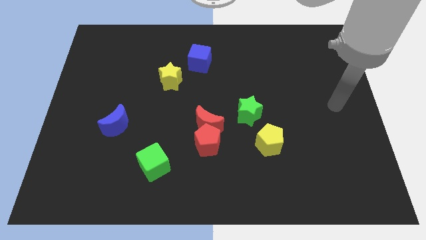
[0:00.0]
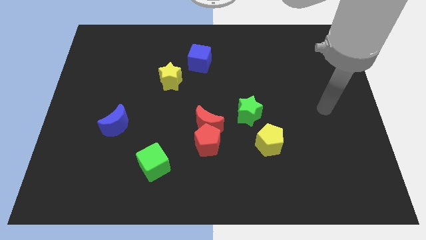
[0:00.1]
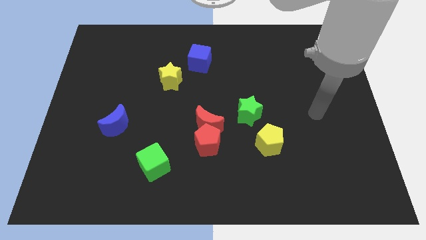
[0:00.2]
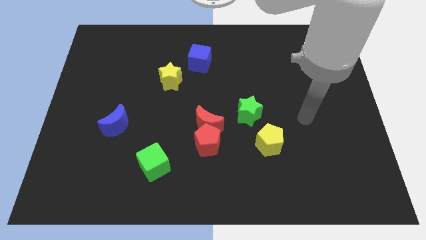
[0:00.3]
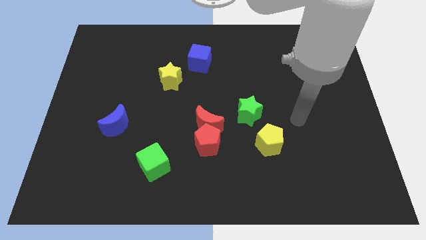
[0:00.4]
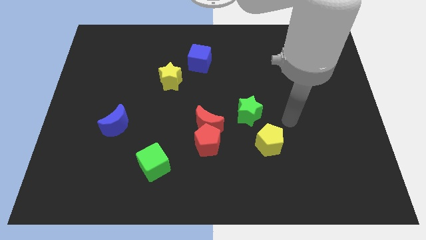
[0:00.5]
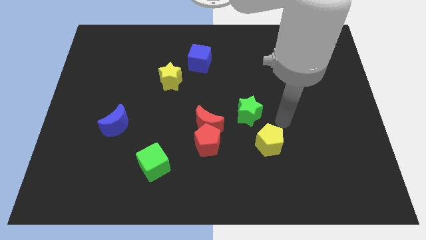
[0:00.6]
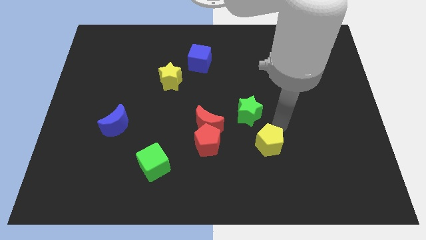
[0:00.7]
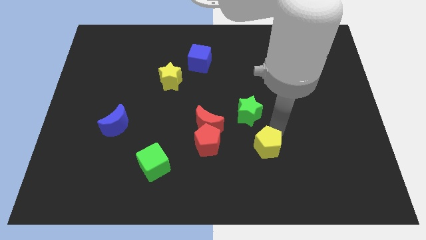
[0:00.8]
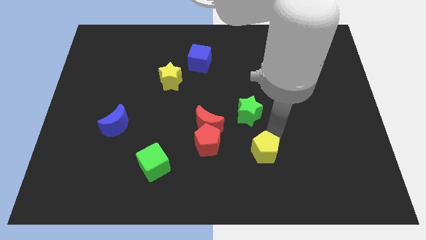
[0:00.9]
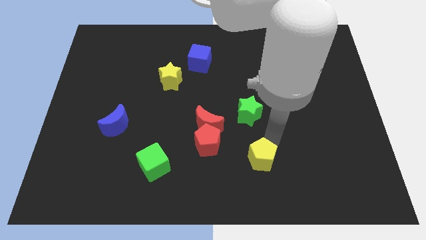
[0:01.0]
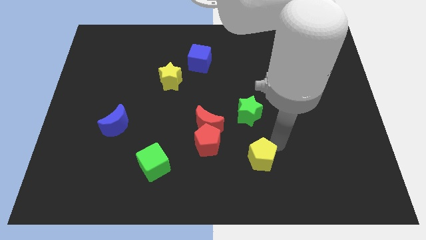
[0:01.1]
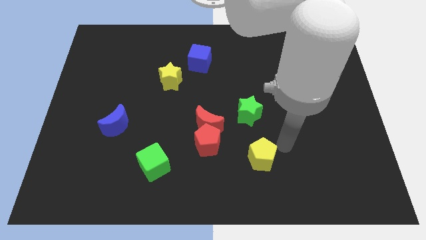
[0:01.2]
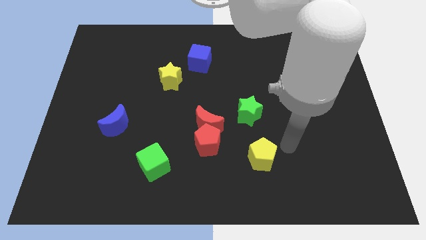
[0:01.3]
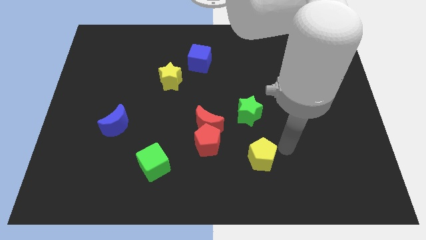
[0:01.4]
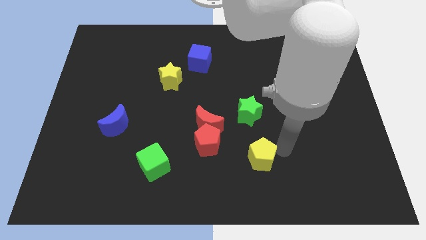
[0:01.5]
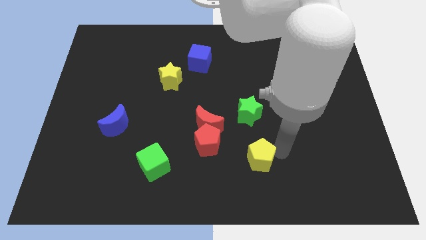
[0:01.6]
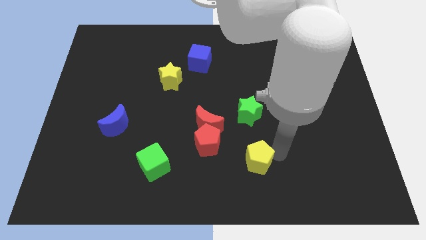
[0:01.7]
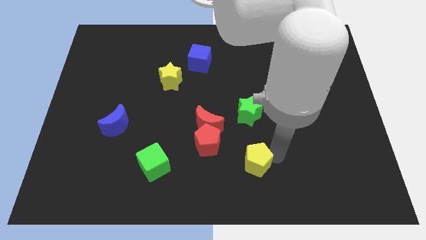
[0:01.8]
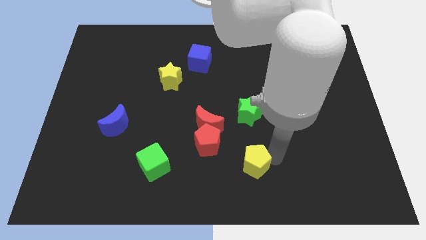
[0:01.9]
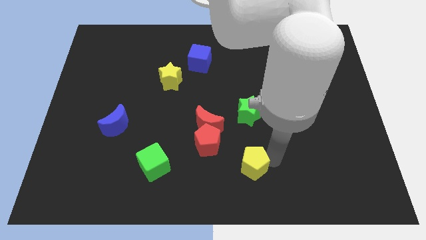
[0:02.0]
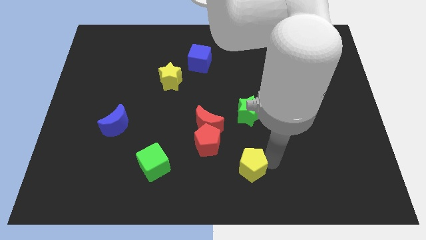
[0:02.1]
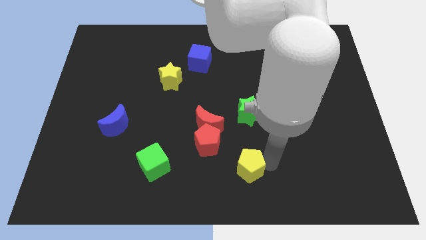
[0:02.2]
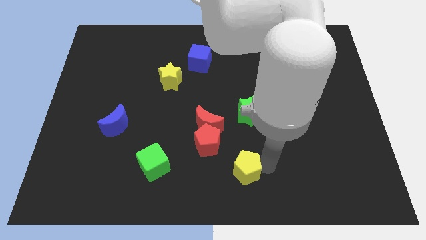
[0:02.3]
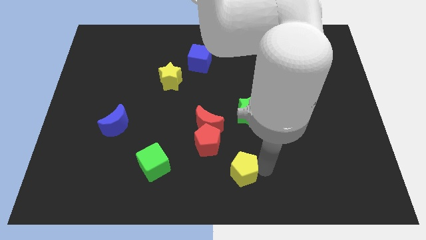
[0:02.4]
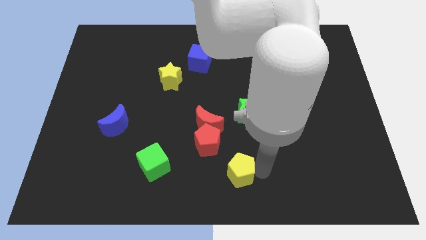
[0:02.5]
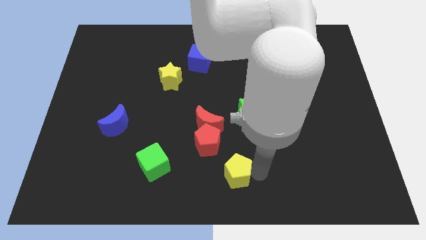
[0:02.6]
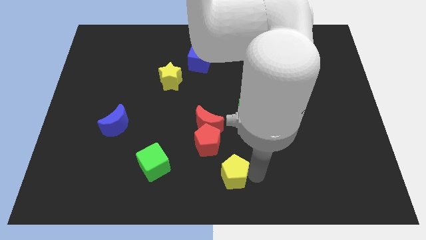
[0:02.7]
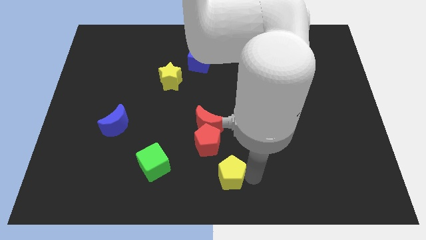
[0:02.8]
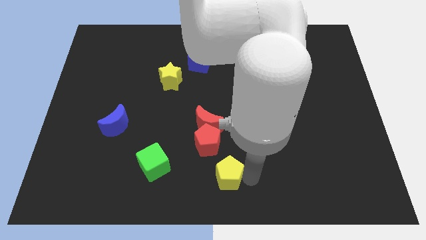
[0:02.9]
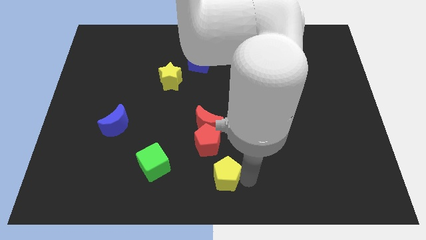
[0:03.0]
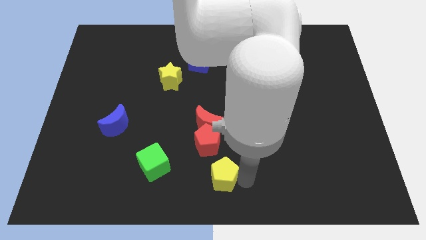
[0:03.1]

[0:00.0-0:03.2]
move the yellow pentagon to the left a little

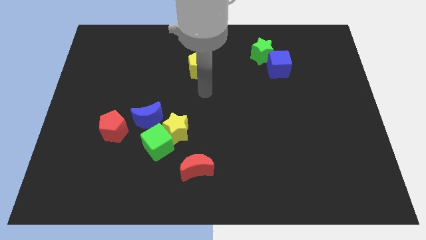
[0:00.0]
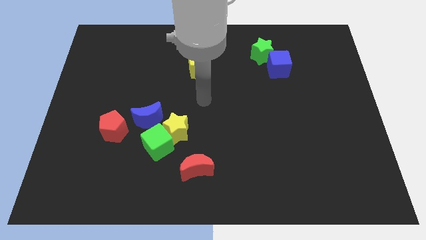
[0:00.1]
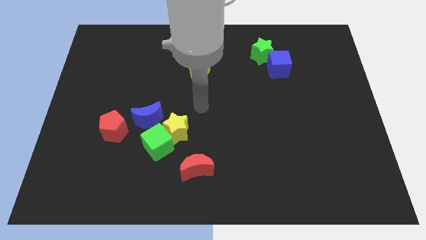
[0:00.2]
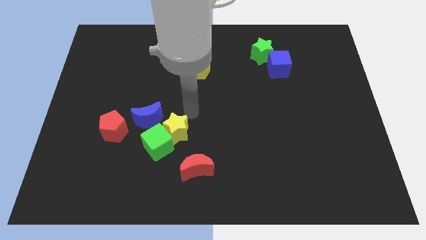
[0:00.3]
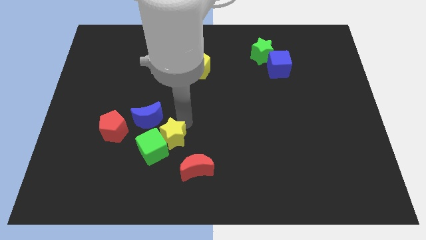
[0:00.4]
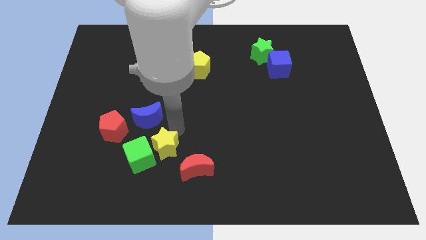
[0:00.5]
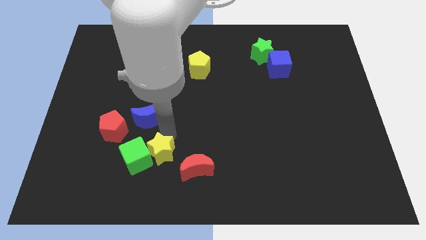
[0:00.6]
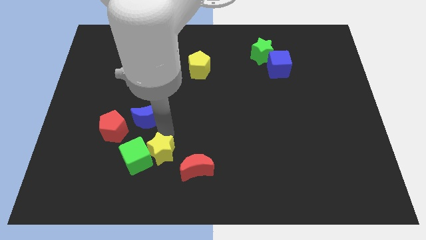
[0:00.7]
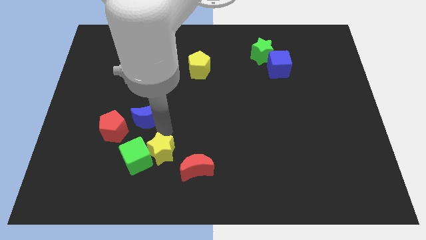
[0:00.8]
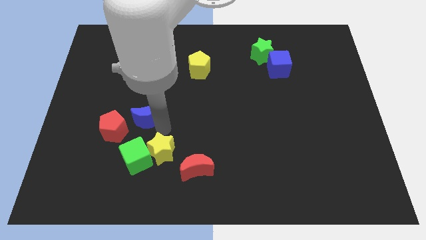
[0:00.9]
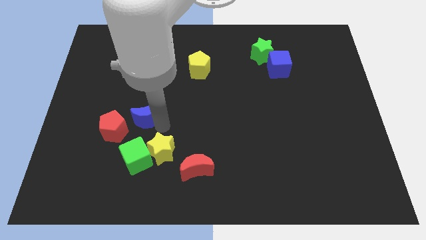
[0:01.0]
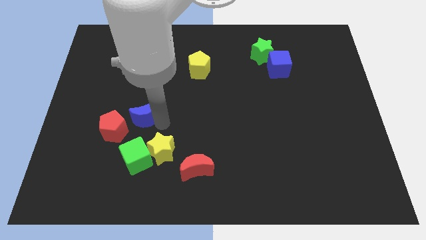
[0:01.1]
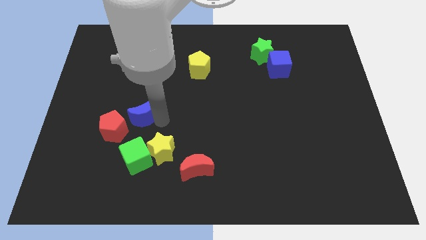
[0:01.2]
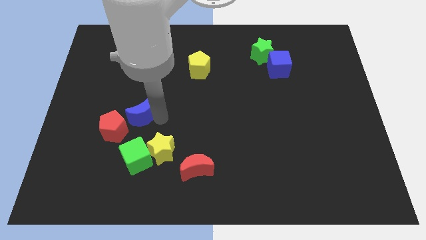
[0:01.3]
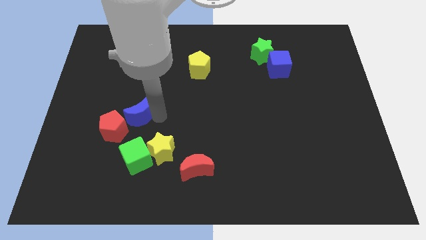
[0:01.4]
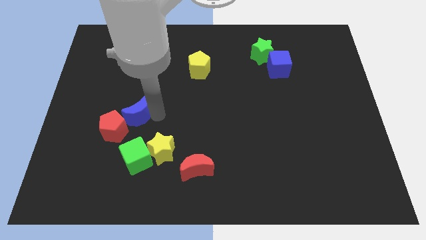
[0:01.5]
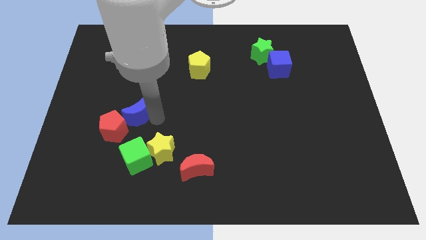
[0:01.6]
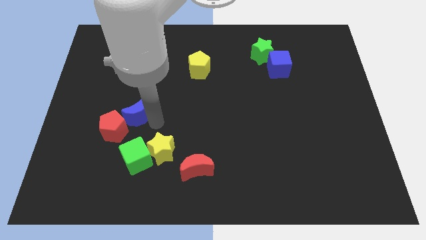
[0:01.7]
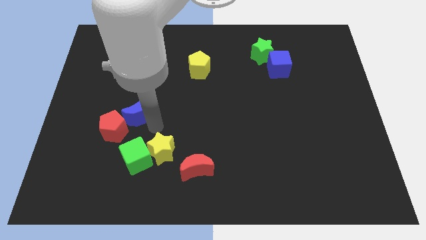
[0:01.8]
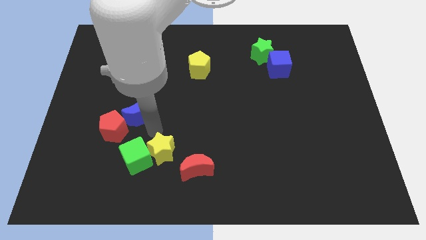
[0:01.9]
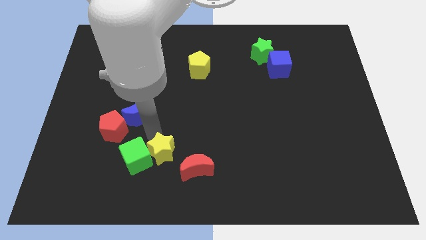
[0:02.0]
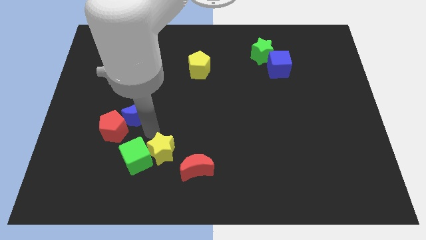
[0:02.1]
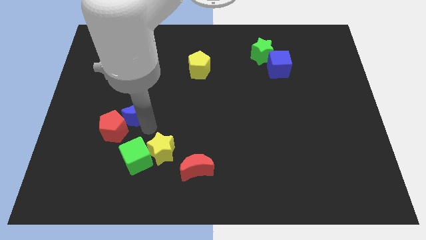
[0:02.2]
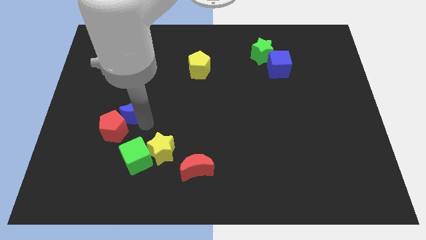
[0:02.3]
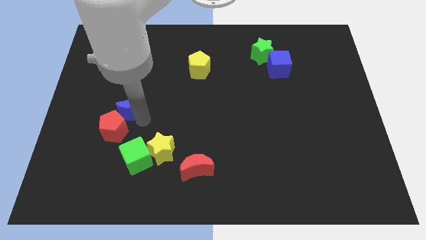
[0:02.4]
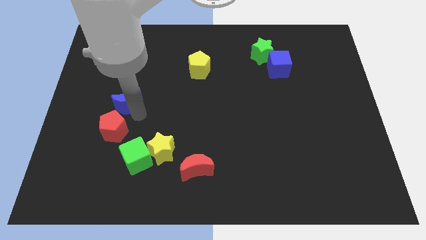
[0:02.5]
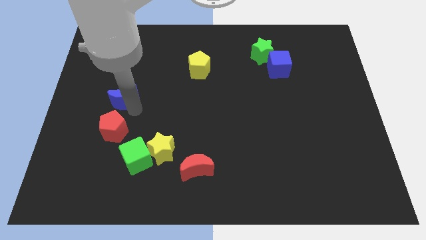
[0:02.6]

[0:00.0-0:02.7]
move the blue moon up and then left a bit

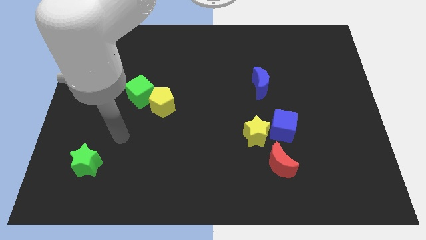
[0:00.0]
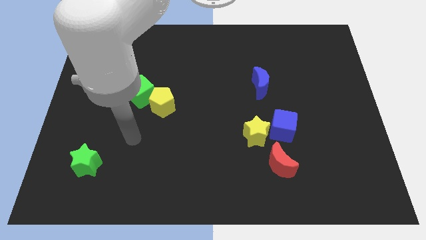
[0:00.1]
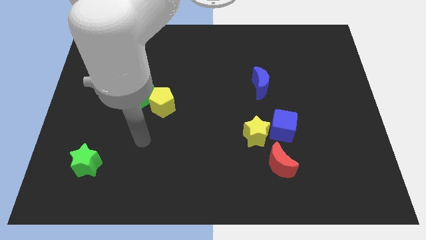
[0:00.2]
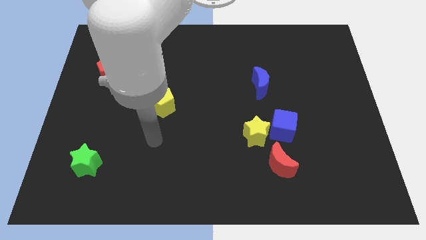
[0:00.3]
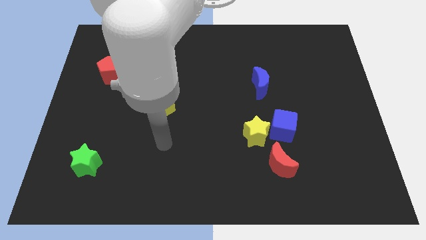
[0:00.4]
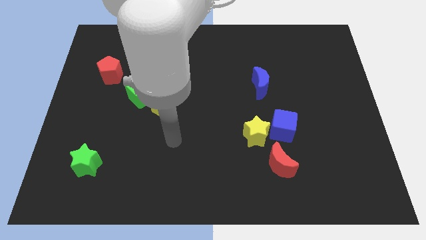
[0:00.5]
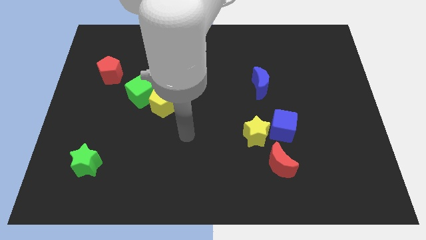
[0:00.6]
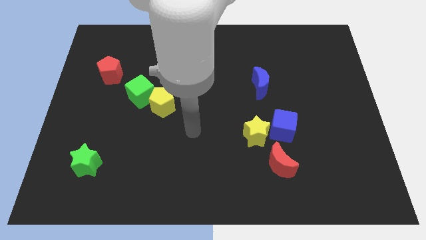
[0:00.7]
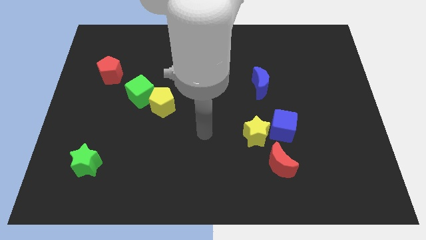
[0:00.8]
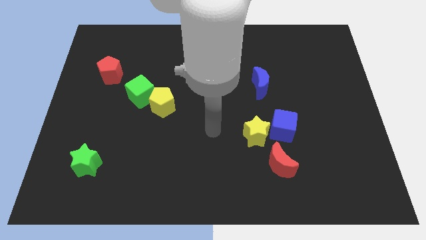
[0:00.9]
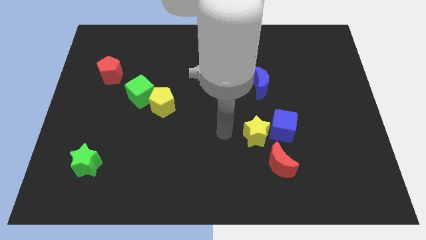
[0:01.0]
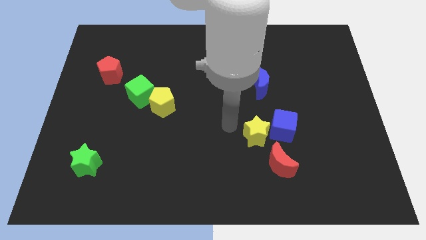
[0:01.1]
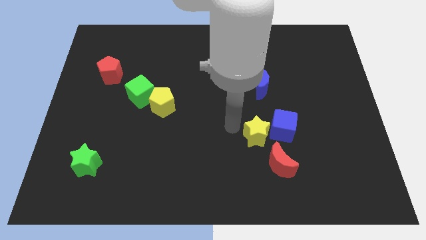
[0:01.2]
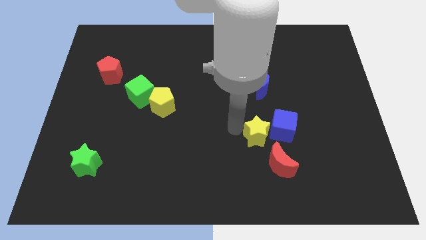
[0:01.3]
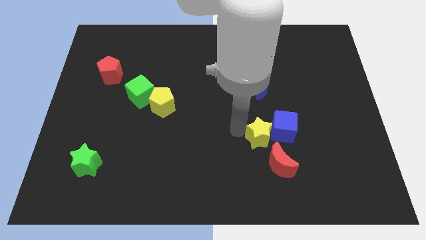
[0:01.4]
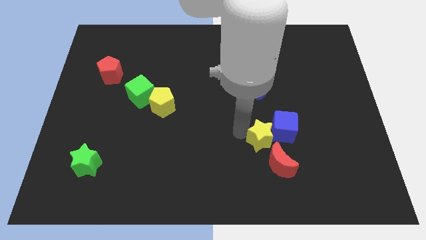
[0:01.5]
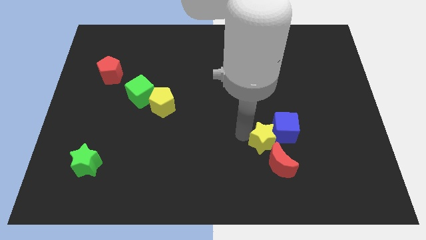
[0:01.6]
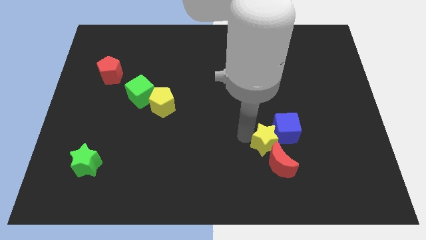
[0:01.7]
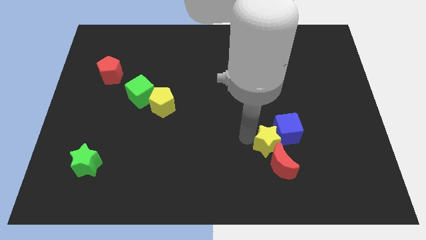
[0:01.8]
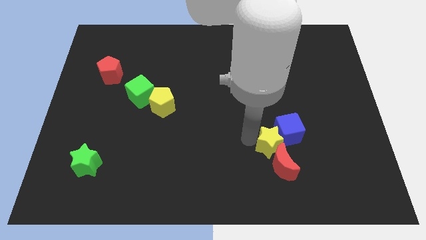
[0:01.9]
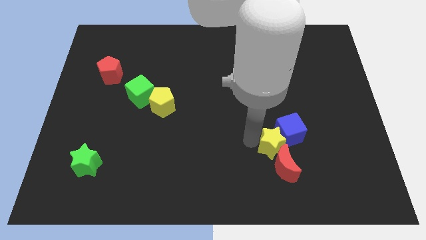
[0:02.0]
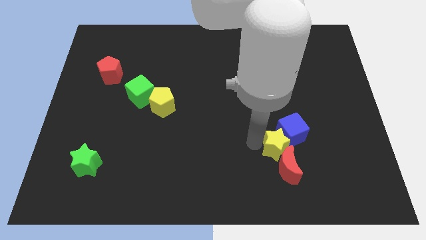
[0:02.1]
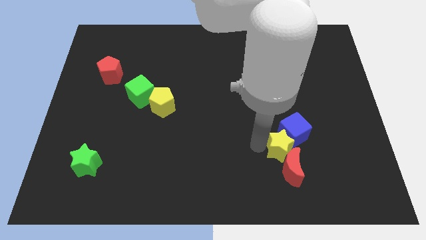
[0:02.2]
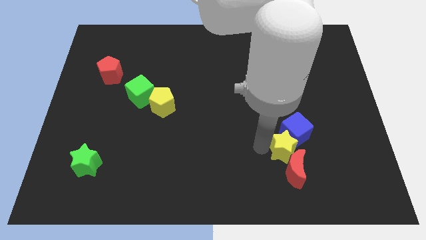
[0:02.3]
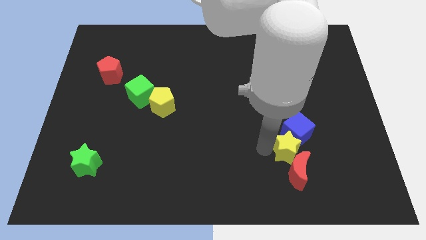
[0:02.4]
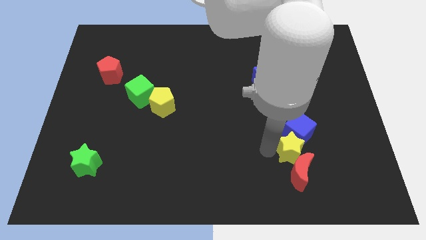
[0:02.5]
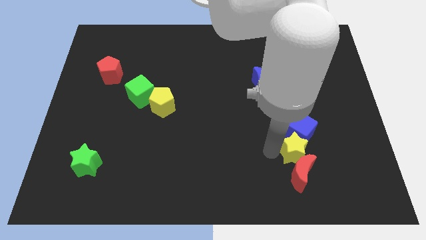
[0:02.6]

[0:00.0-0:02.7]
move the yellow star to the right slightly

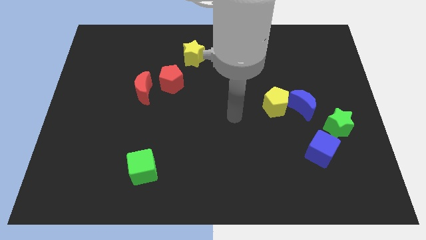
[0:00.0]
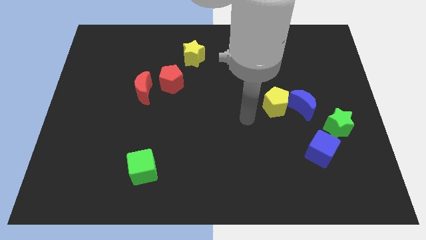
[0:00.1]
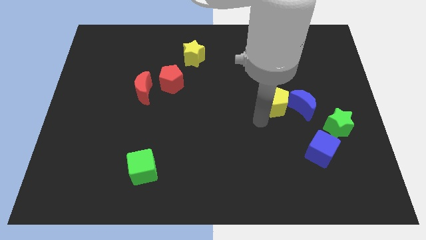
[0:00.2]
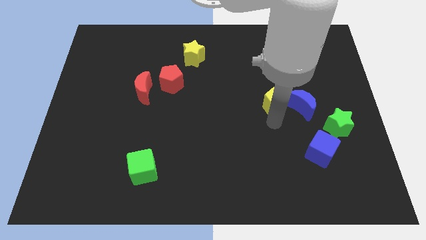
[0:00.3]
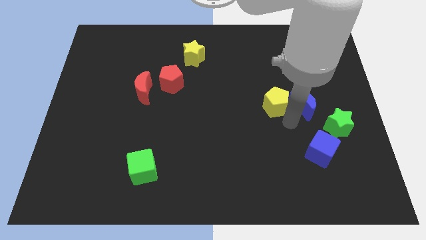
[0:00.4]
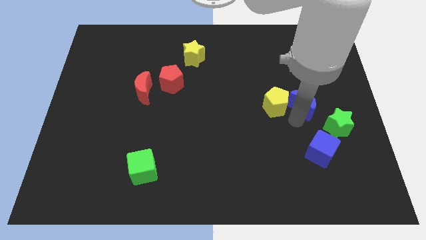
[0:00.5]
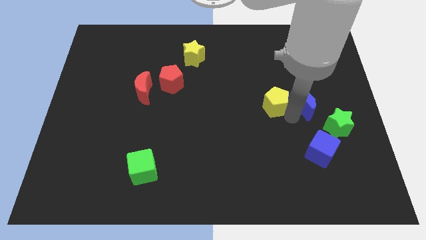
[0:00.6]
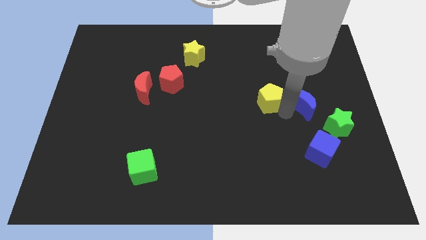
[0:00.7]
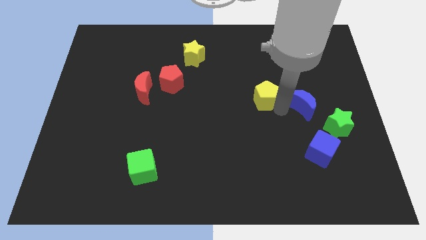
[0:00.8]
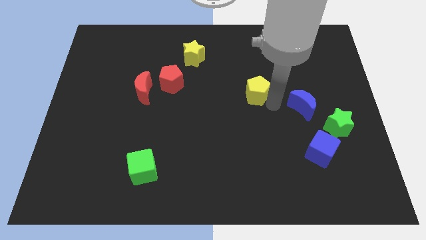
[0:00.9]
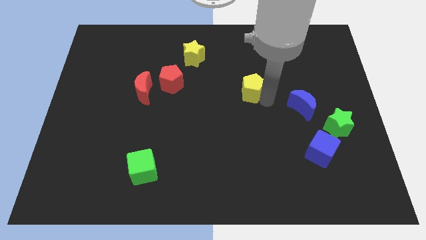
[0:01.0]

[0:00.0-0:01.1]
slightly push the yellow pentagon upwards and to the left
